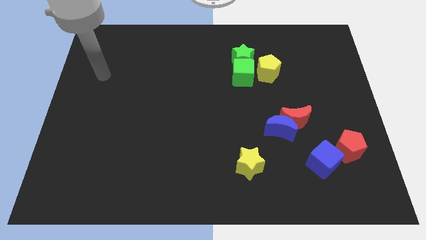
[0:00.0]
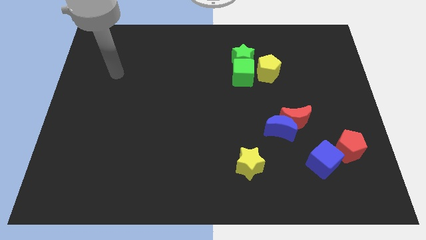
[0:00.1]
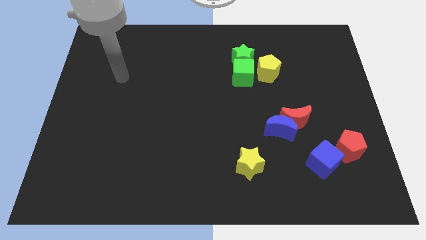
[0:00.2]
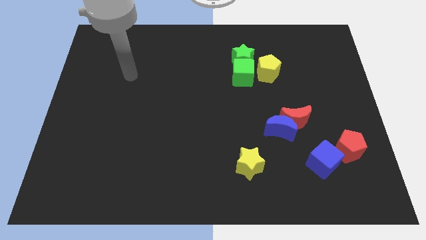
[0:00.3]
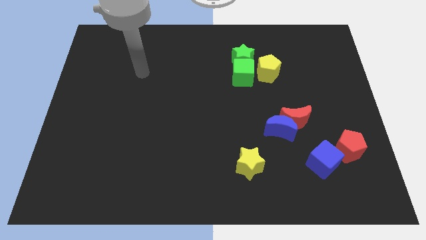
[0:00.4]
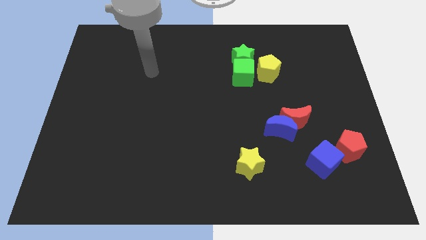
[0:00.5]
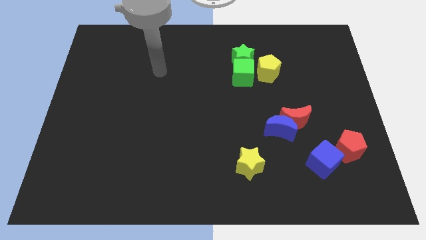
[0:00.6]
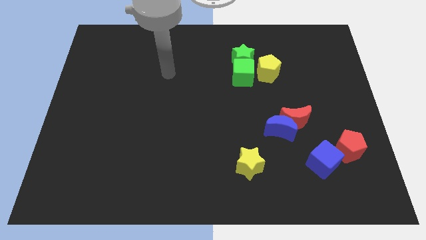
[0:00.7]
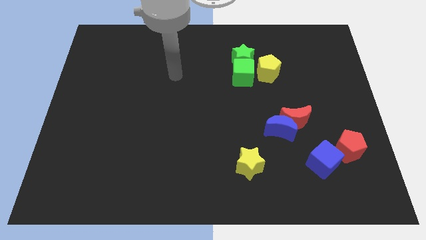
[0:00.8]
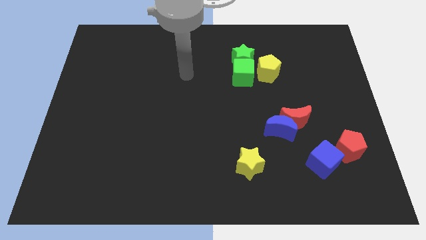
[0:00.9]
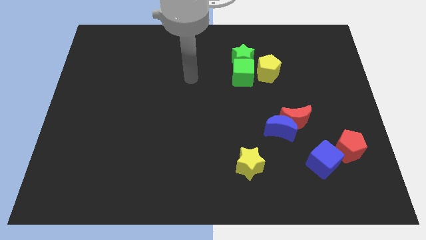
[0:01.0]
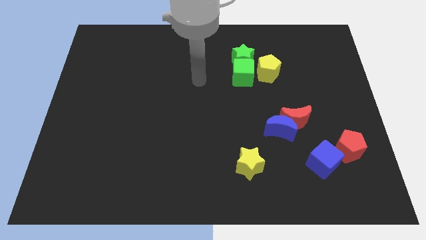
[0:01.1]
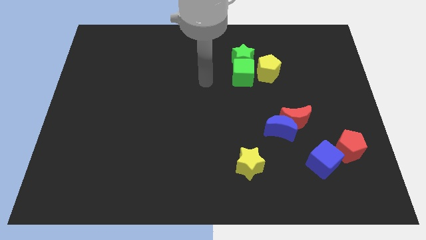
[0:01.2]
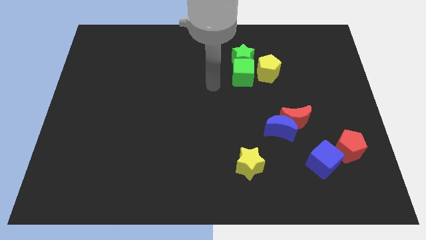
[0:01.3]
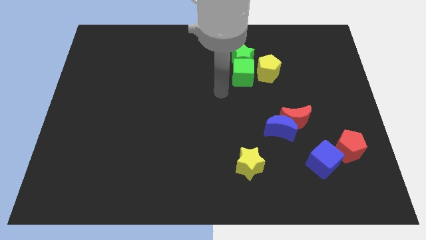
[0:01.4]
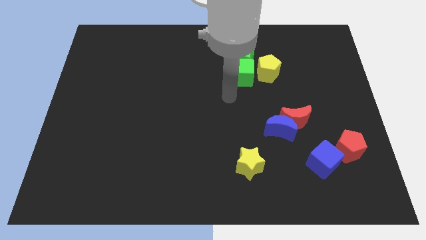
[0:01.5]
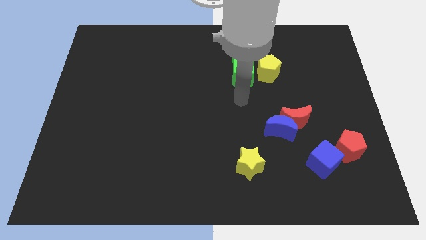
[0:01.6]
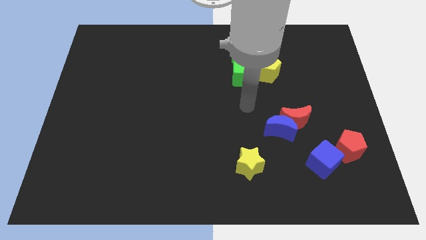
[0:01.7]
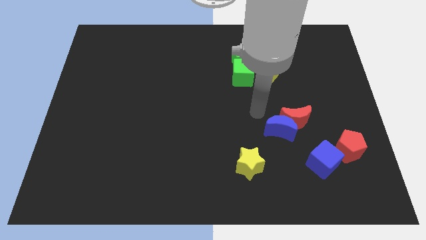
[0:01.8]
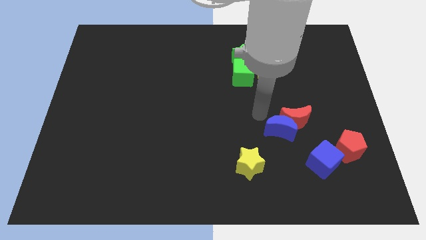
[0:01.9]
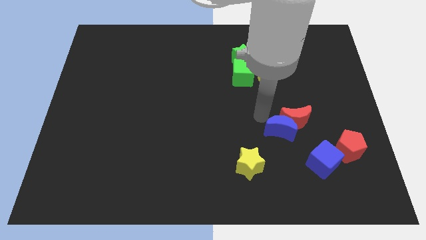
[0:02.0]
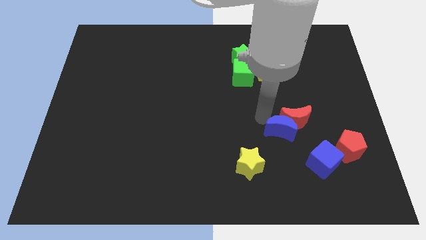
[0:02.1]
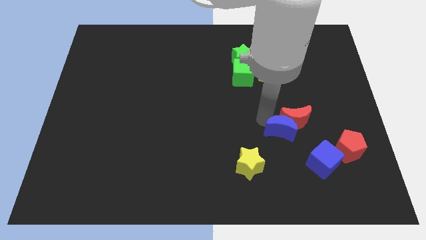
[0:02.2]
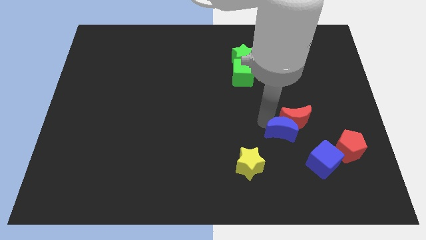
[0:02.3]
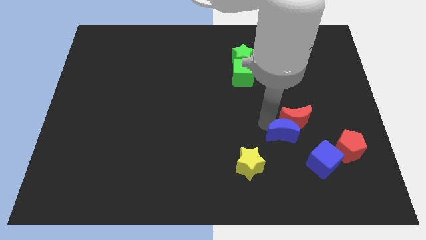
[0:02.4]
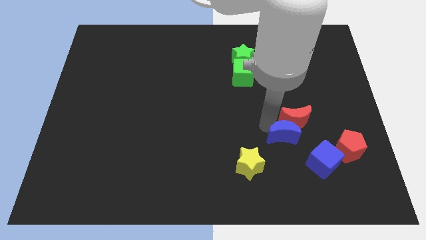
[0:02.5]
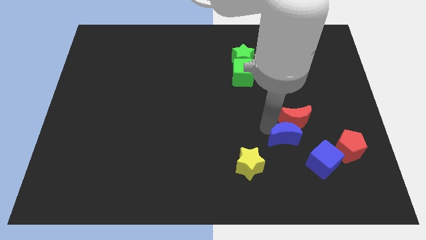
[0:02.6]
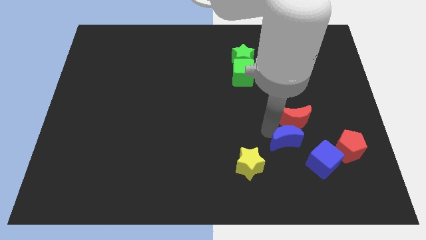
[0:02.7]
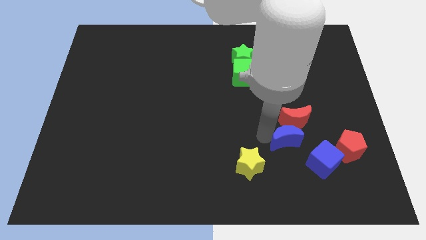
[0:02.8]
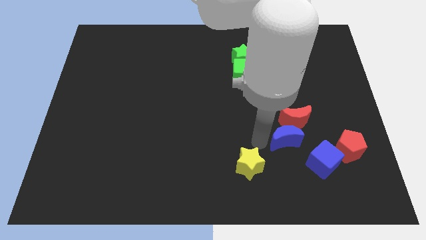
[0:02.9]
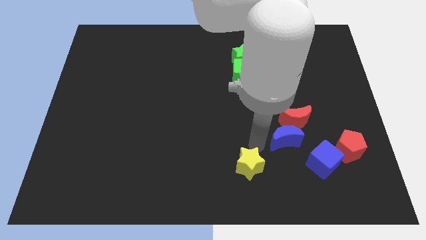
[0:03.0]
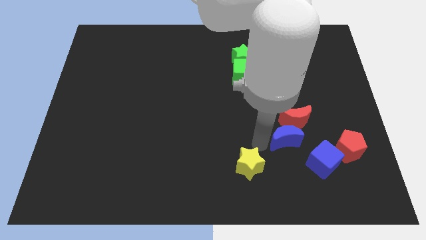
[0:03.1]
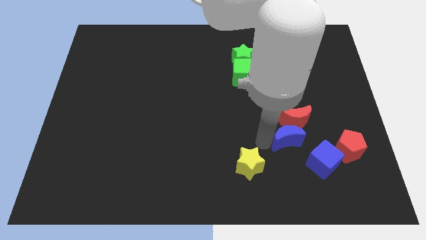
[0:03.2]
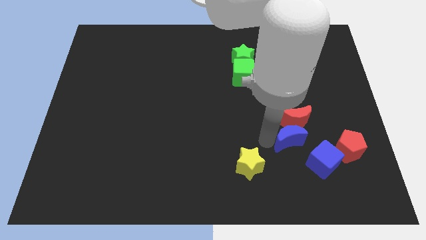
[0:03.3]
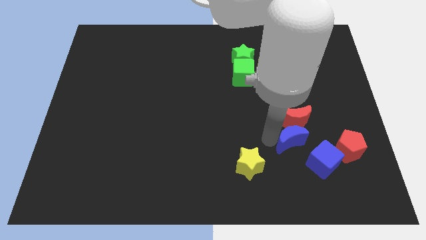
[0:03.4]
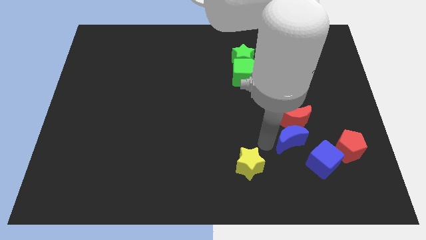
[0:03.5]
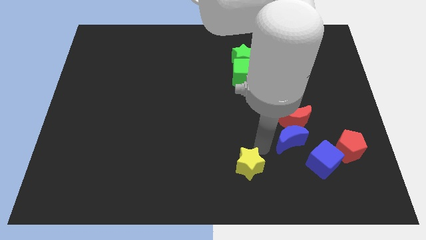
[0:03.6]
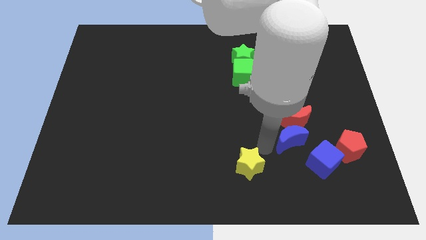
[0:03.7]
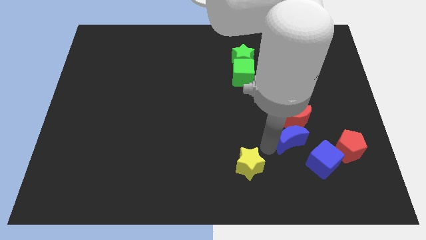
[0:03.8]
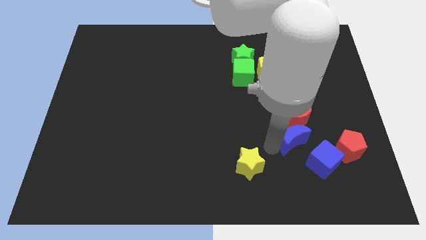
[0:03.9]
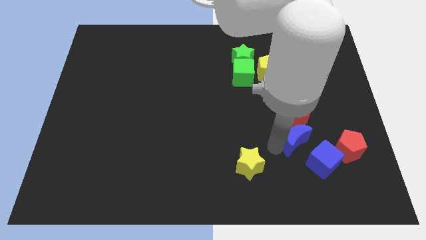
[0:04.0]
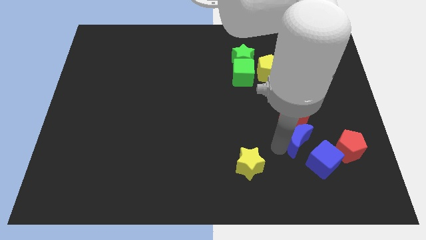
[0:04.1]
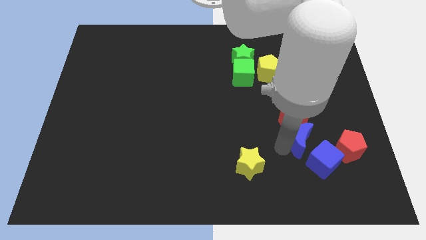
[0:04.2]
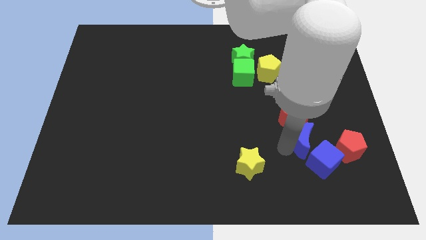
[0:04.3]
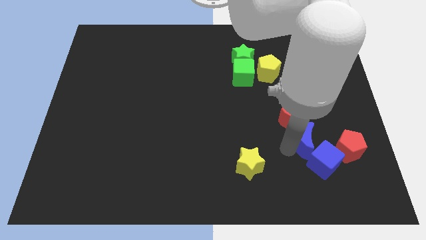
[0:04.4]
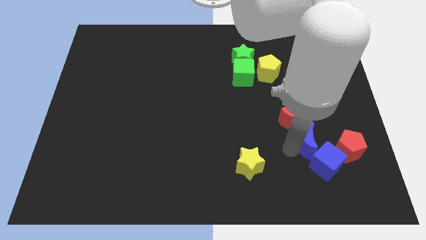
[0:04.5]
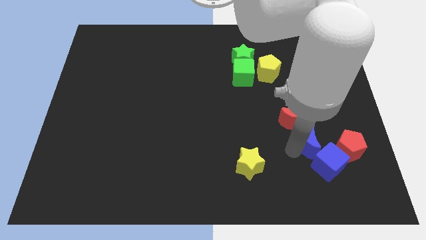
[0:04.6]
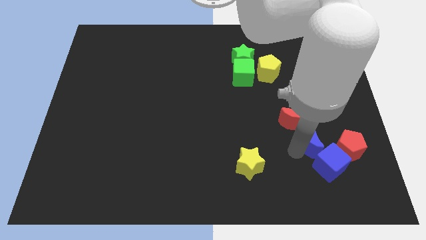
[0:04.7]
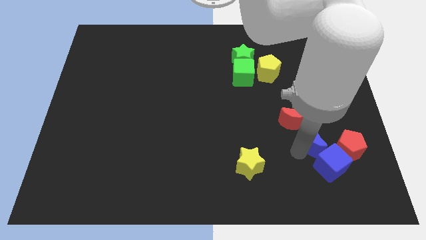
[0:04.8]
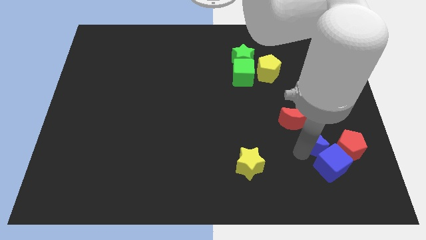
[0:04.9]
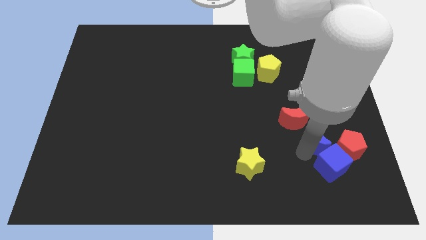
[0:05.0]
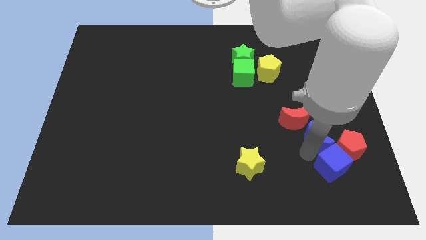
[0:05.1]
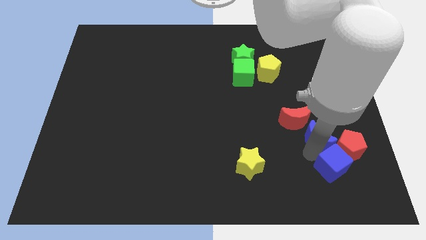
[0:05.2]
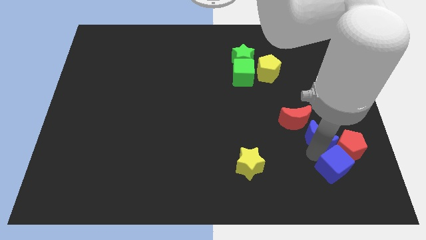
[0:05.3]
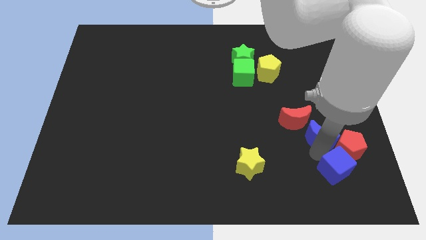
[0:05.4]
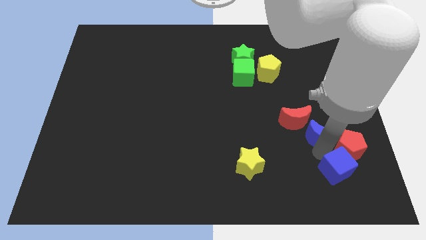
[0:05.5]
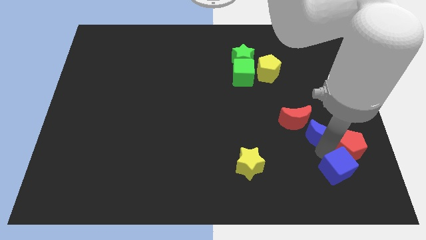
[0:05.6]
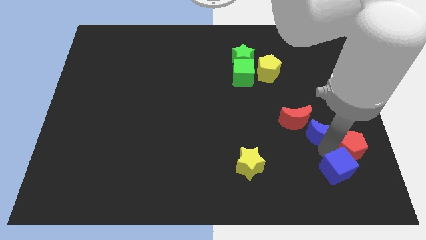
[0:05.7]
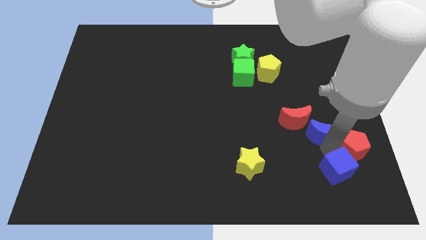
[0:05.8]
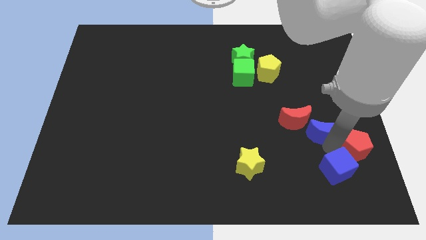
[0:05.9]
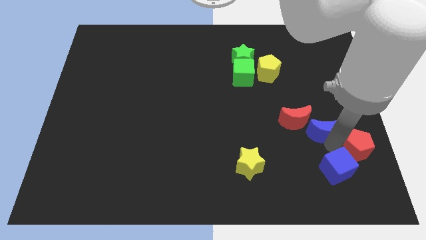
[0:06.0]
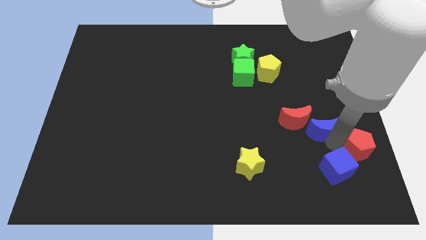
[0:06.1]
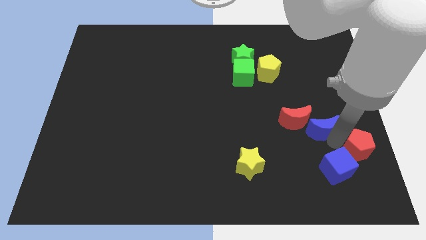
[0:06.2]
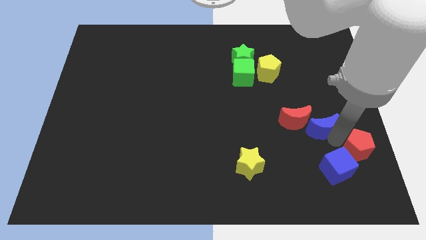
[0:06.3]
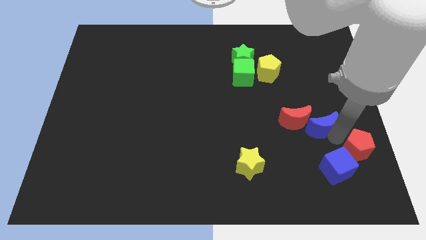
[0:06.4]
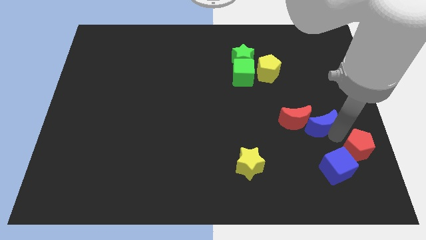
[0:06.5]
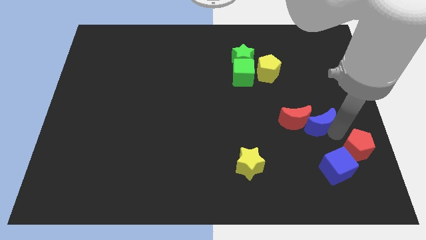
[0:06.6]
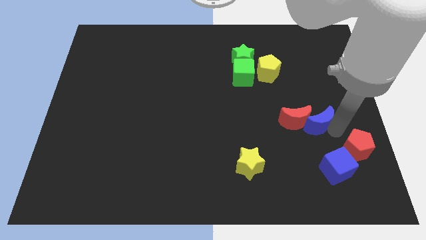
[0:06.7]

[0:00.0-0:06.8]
slide the blue moon diagonally up and to the right of the red moon

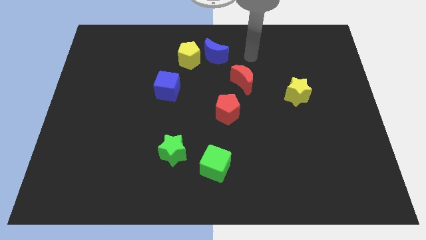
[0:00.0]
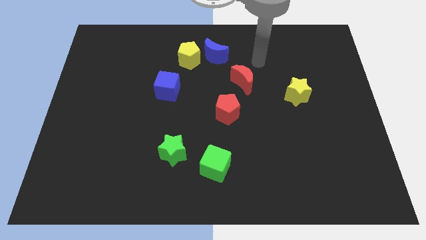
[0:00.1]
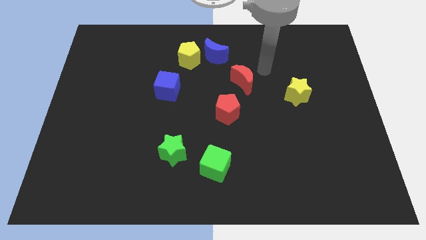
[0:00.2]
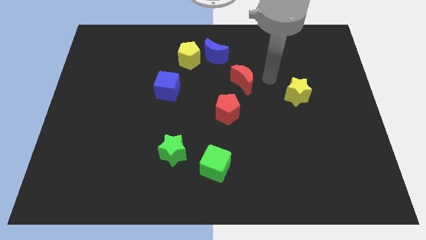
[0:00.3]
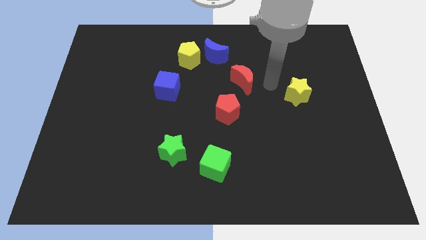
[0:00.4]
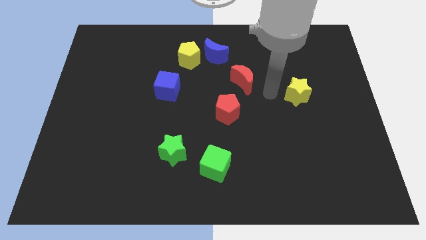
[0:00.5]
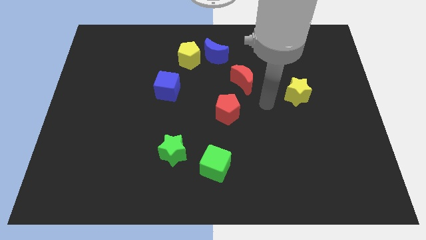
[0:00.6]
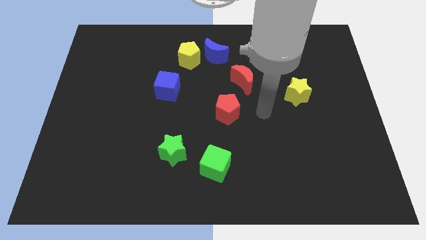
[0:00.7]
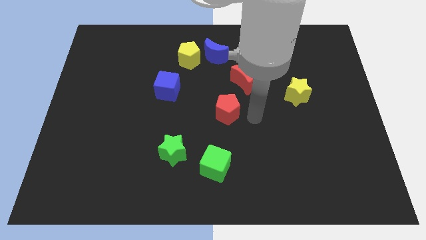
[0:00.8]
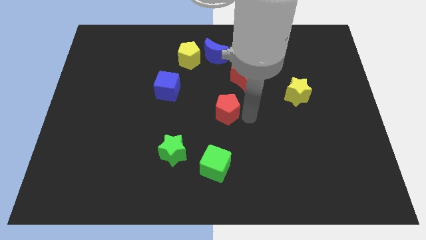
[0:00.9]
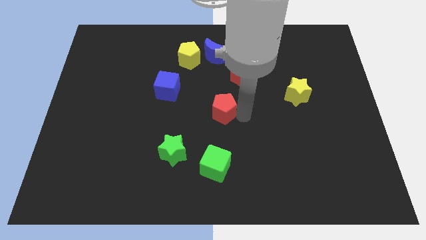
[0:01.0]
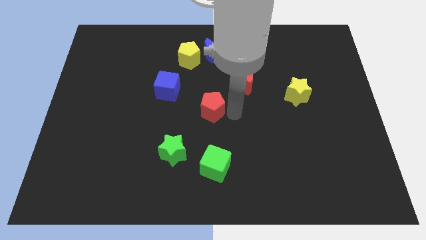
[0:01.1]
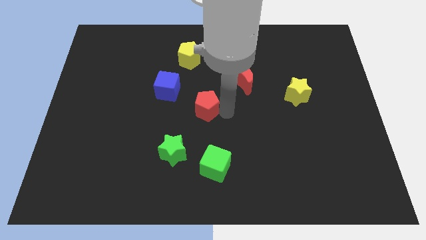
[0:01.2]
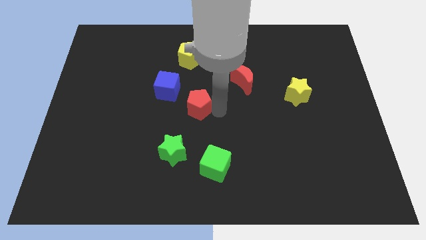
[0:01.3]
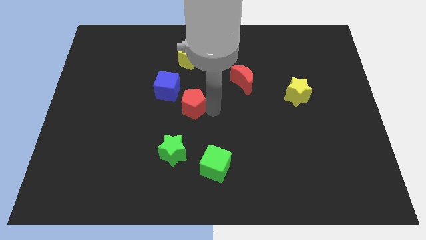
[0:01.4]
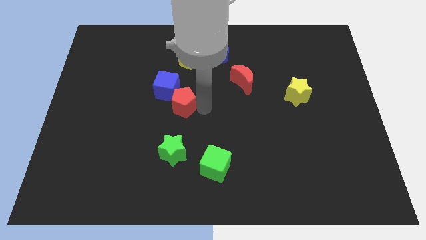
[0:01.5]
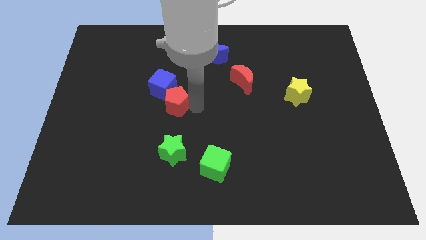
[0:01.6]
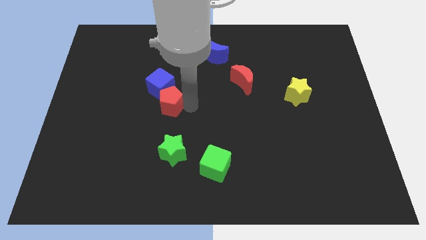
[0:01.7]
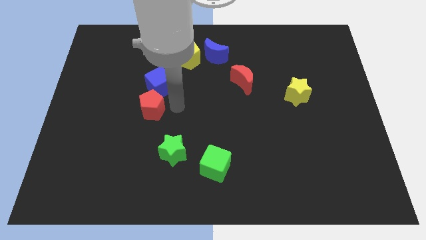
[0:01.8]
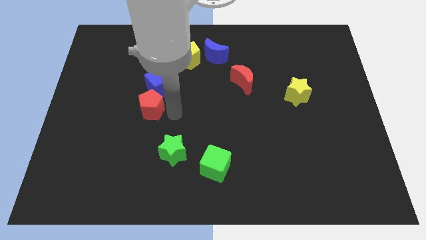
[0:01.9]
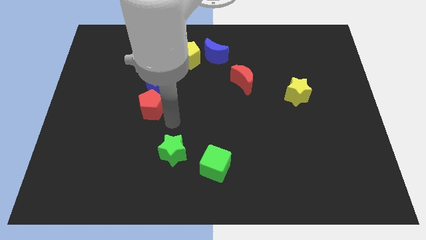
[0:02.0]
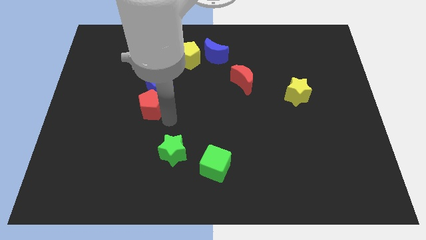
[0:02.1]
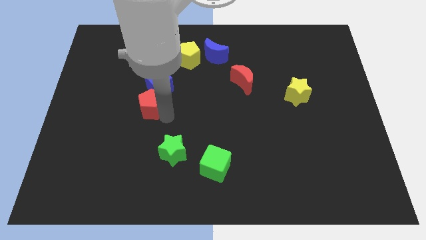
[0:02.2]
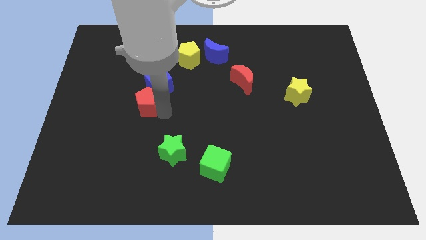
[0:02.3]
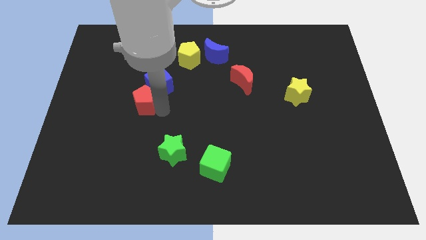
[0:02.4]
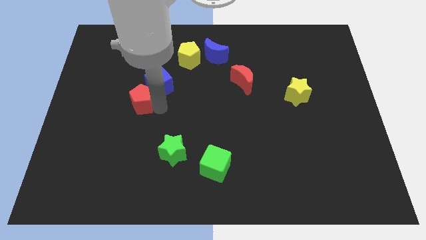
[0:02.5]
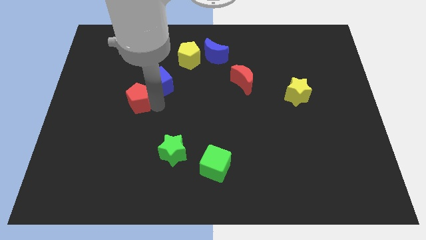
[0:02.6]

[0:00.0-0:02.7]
push the red pentagon just left of the blue cube
